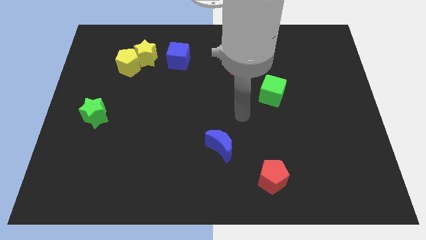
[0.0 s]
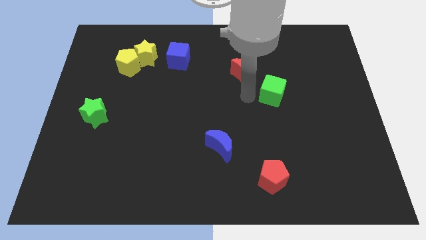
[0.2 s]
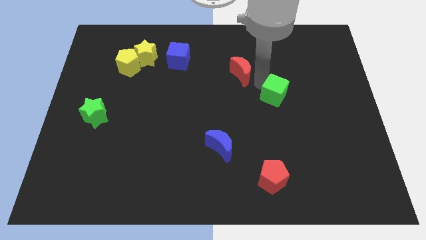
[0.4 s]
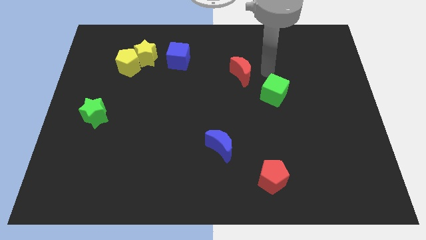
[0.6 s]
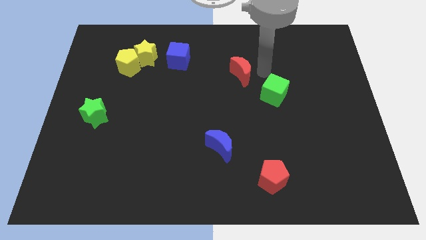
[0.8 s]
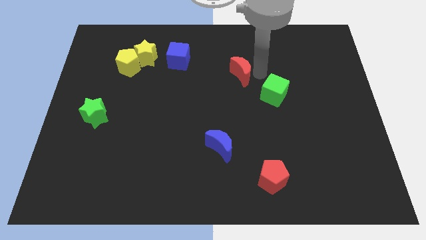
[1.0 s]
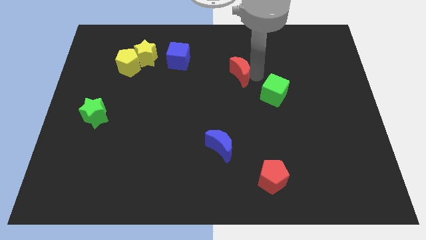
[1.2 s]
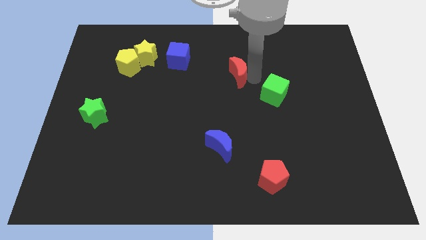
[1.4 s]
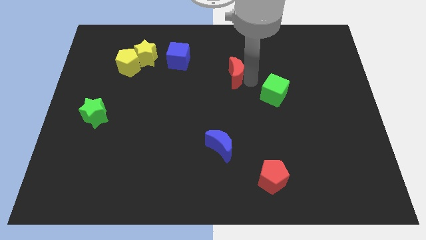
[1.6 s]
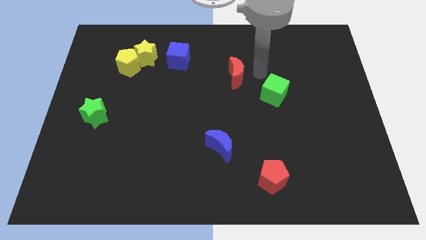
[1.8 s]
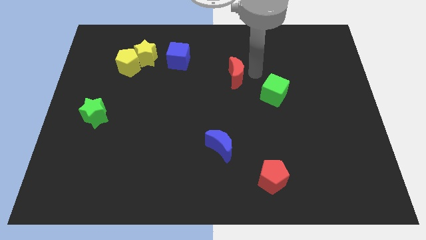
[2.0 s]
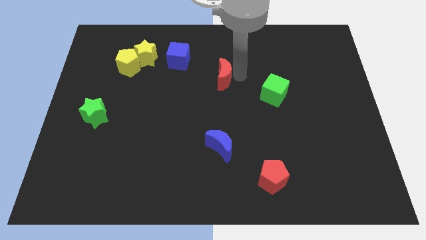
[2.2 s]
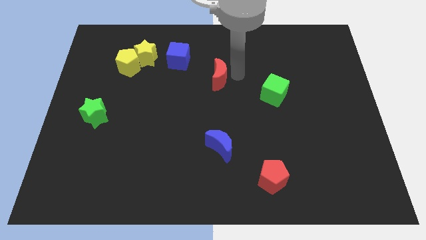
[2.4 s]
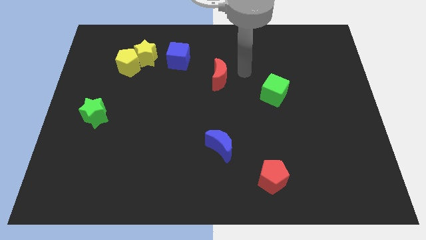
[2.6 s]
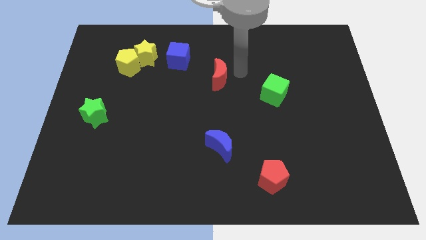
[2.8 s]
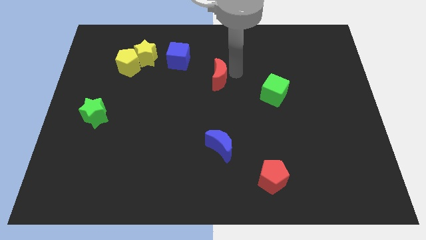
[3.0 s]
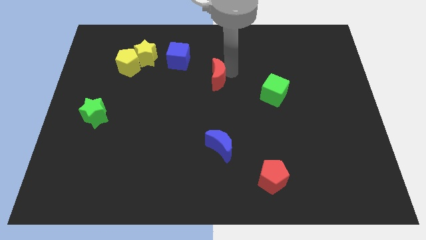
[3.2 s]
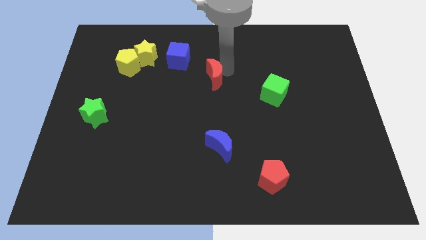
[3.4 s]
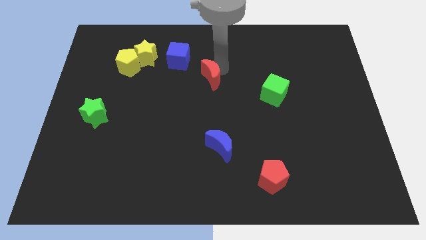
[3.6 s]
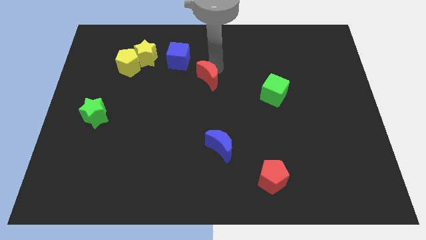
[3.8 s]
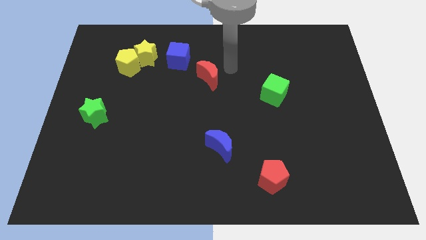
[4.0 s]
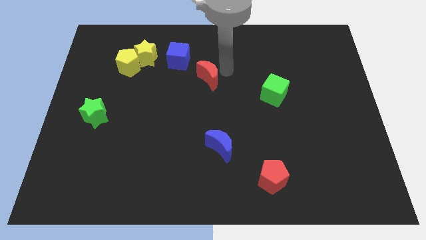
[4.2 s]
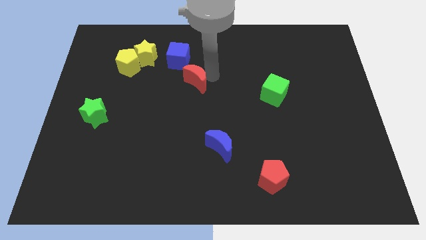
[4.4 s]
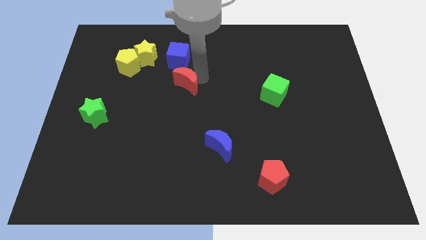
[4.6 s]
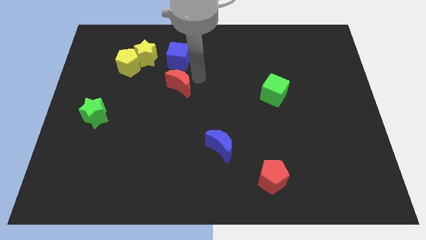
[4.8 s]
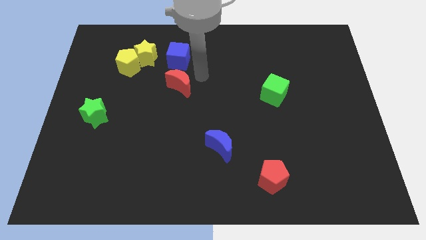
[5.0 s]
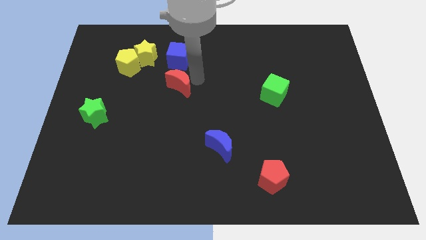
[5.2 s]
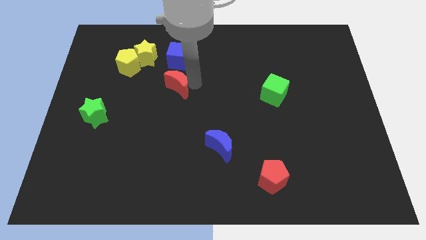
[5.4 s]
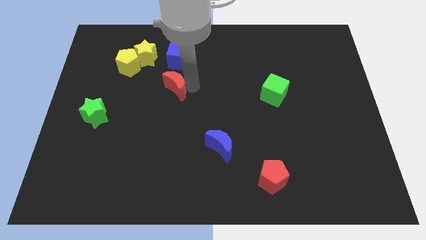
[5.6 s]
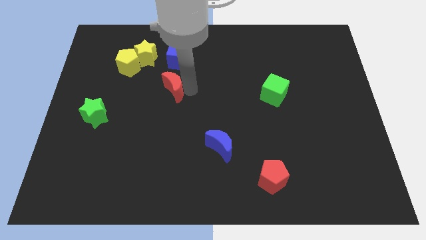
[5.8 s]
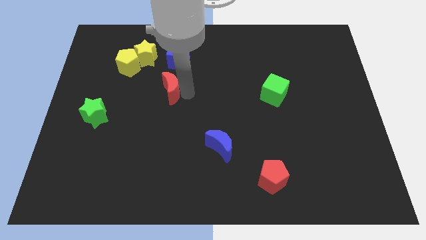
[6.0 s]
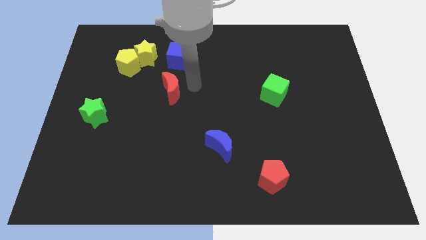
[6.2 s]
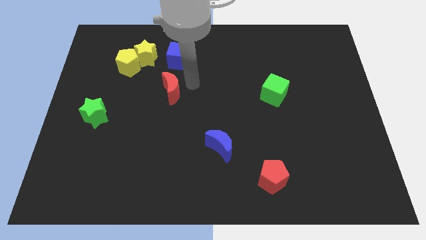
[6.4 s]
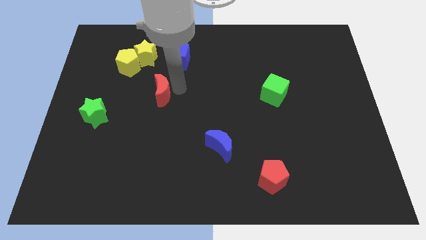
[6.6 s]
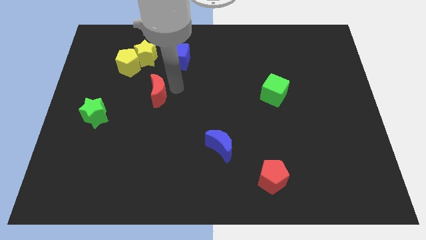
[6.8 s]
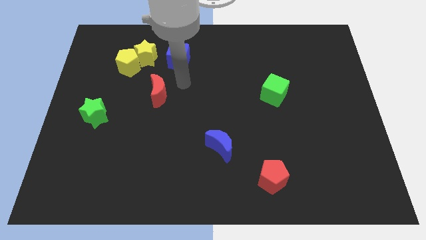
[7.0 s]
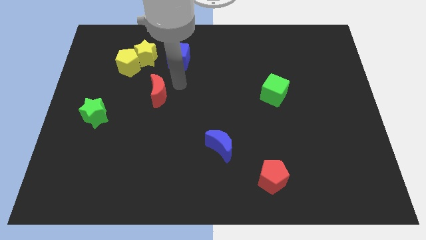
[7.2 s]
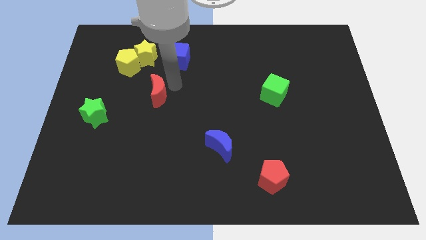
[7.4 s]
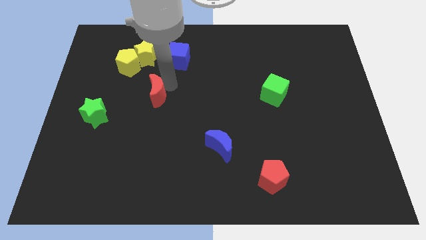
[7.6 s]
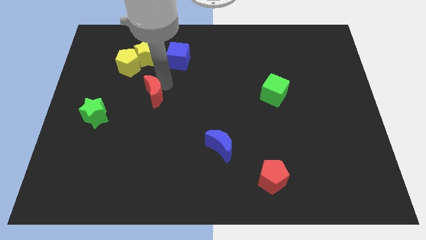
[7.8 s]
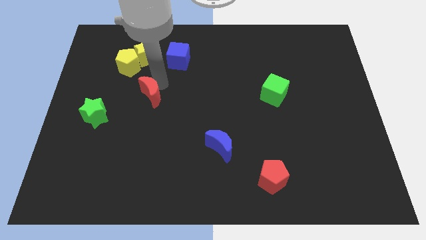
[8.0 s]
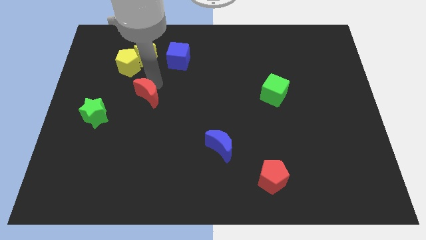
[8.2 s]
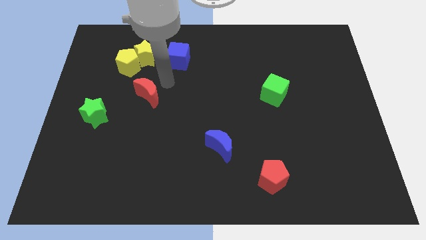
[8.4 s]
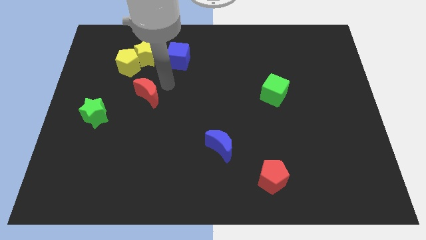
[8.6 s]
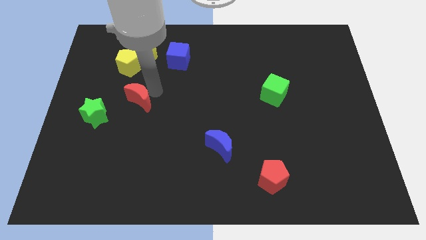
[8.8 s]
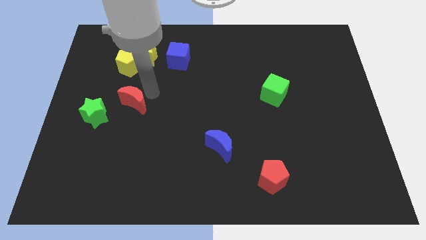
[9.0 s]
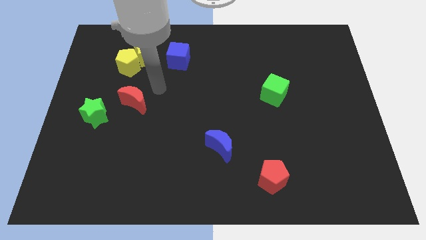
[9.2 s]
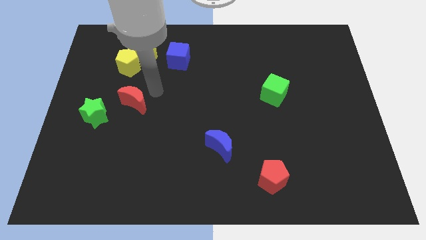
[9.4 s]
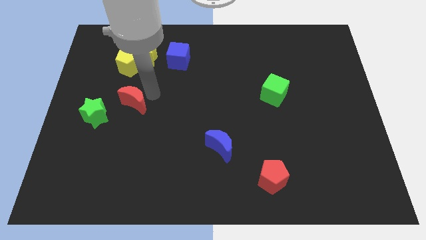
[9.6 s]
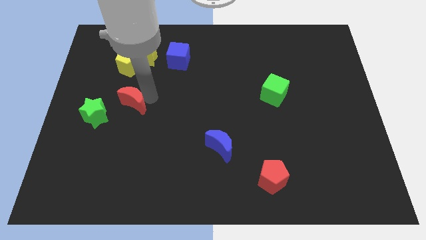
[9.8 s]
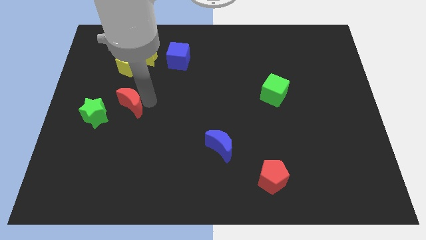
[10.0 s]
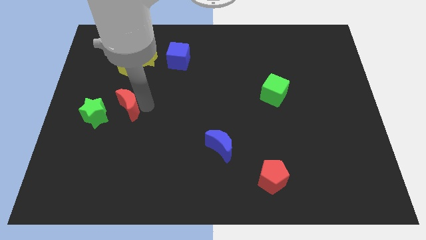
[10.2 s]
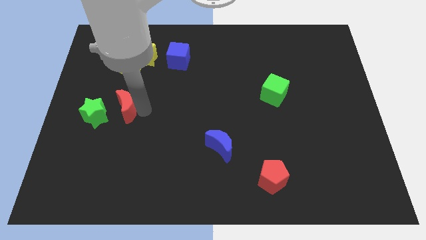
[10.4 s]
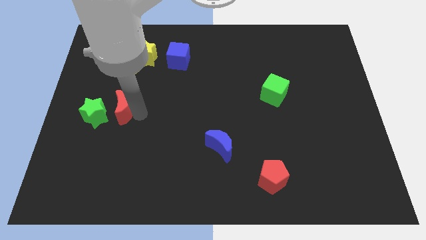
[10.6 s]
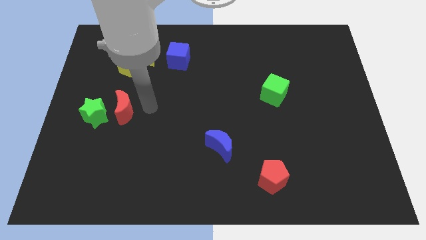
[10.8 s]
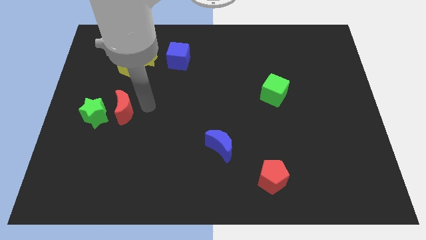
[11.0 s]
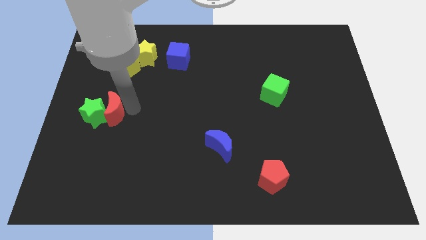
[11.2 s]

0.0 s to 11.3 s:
put the red moon close to the green star

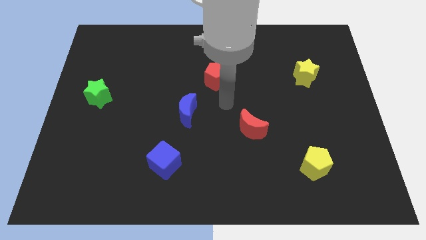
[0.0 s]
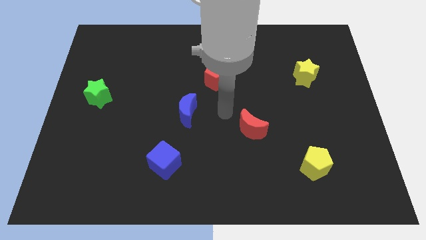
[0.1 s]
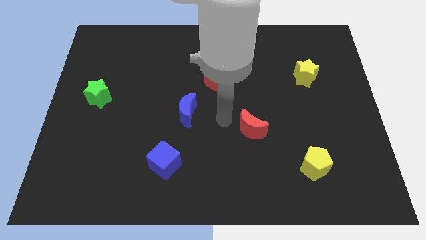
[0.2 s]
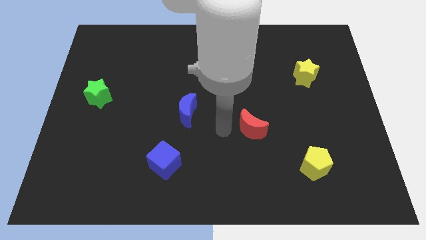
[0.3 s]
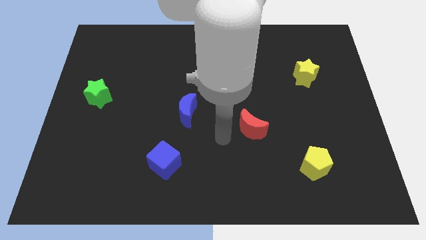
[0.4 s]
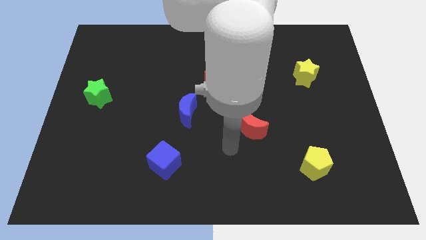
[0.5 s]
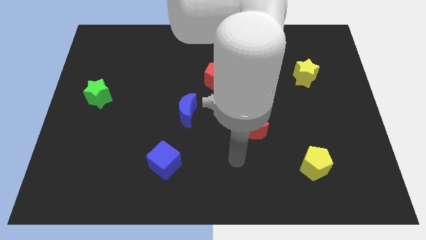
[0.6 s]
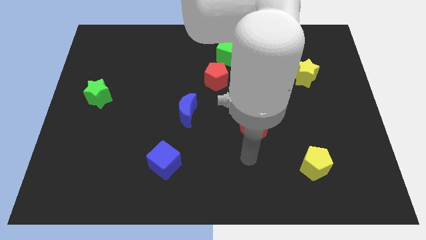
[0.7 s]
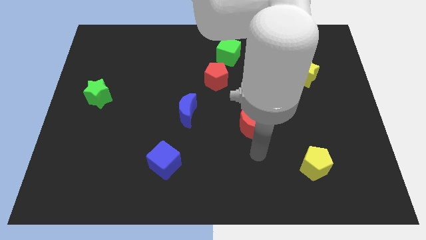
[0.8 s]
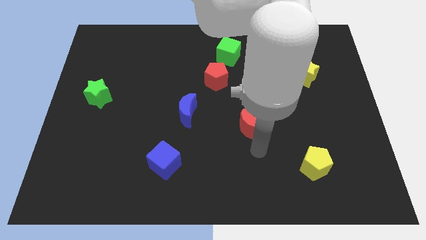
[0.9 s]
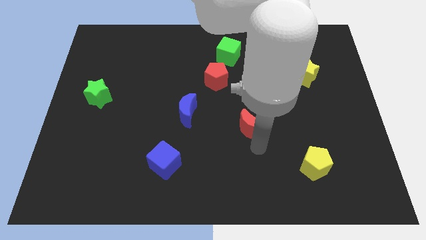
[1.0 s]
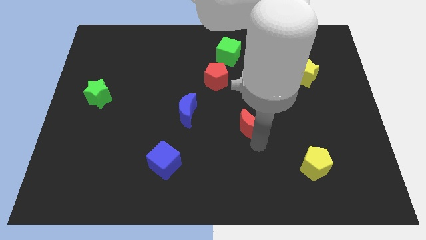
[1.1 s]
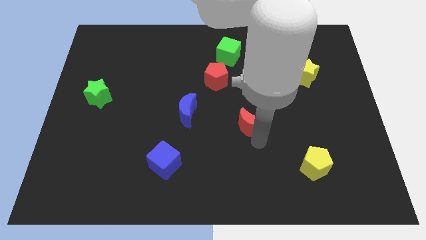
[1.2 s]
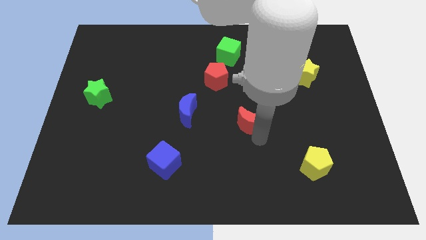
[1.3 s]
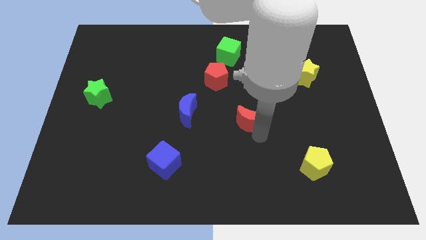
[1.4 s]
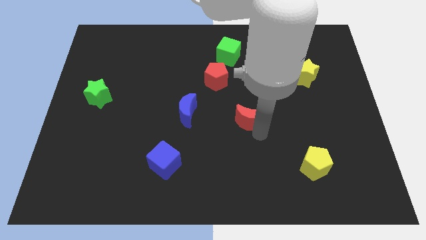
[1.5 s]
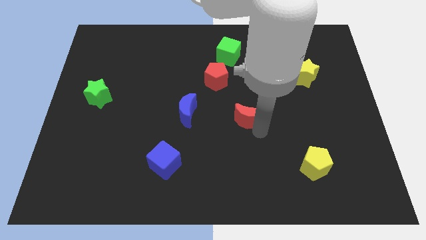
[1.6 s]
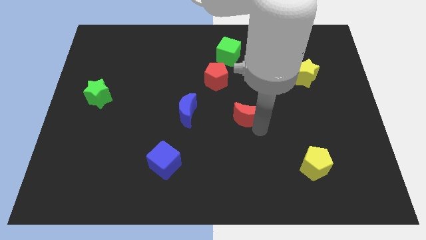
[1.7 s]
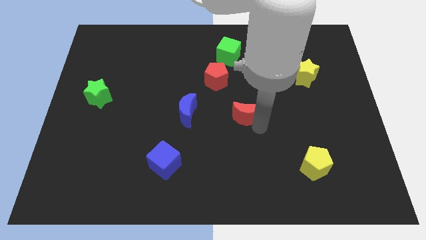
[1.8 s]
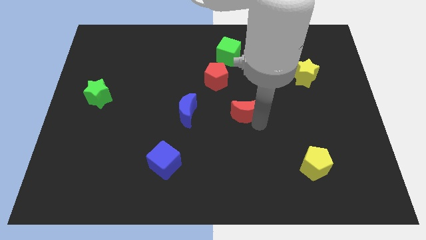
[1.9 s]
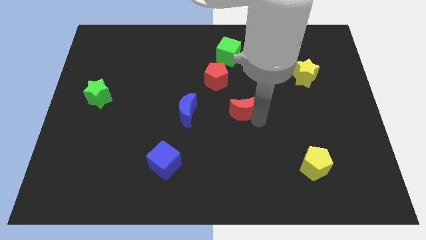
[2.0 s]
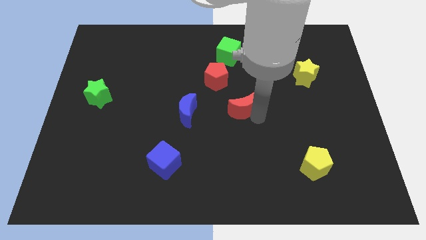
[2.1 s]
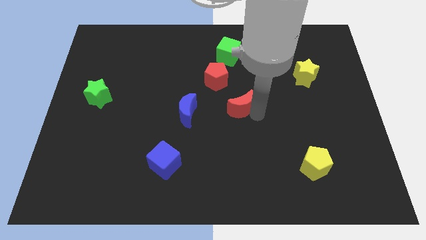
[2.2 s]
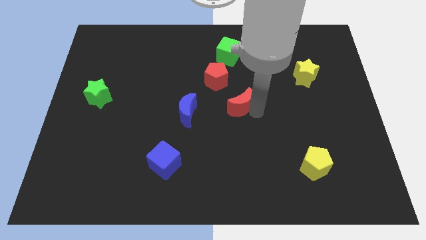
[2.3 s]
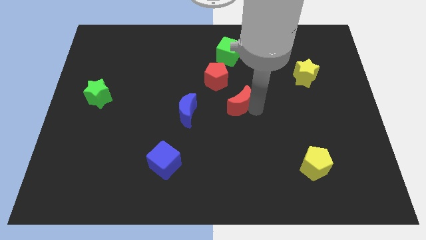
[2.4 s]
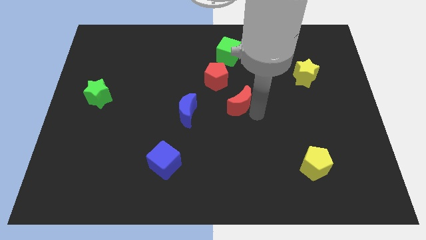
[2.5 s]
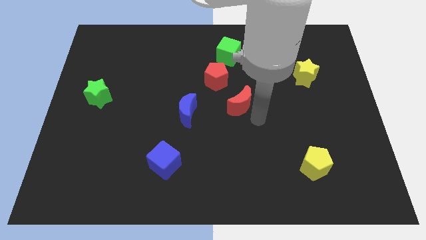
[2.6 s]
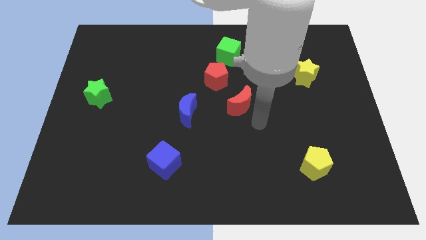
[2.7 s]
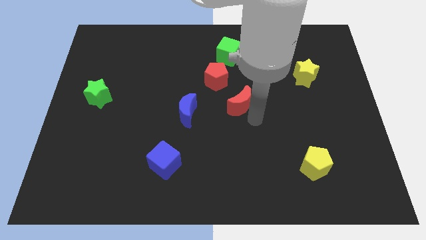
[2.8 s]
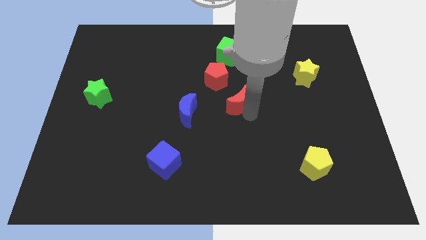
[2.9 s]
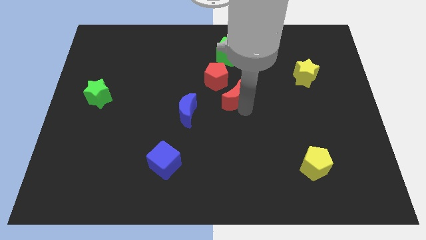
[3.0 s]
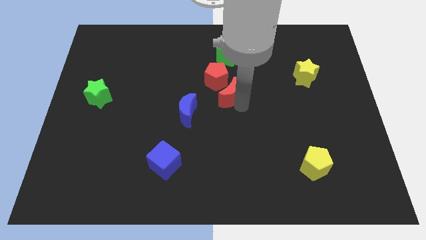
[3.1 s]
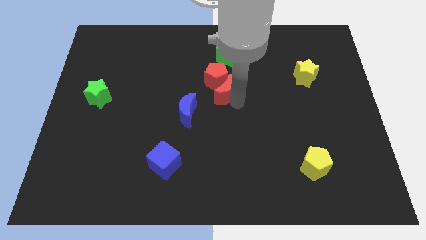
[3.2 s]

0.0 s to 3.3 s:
put the red moon close to the red pentagon
